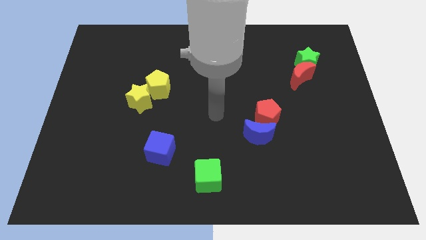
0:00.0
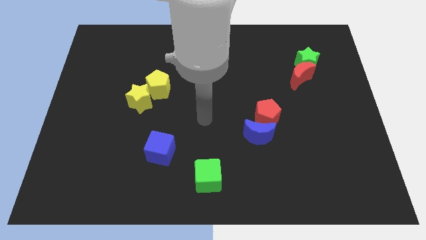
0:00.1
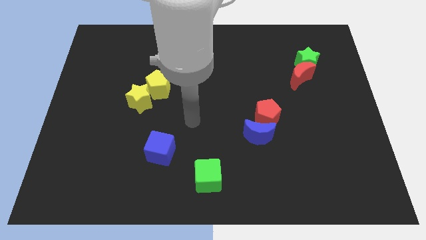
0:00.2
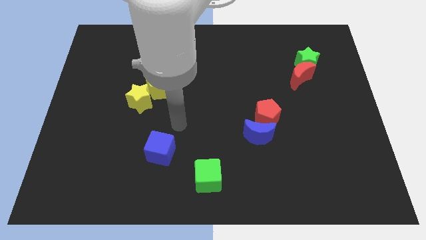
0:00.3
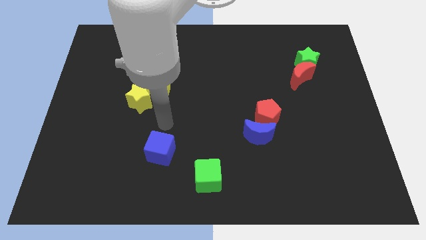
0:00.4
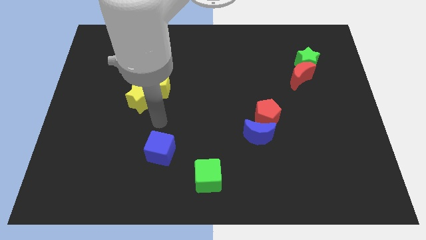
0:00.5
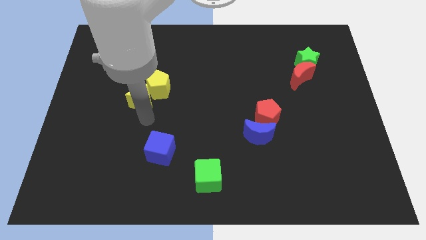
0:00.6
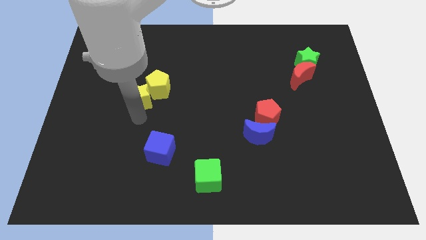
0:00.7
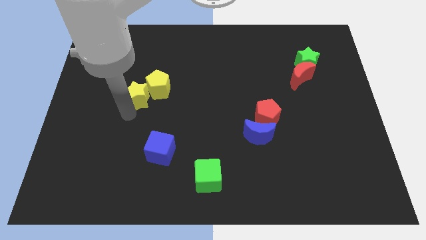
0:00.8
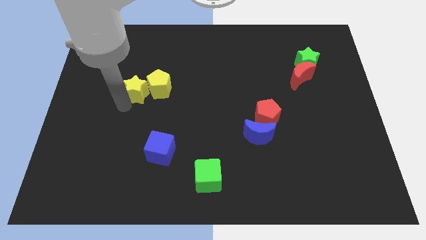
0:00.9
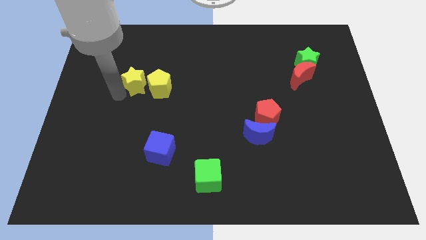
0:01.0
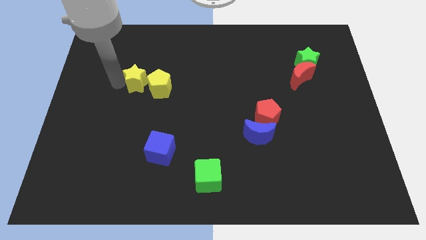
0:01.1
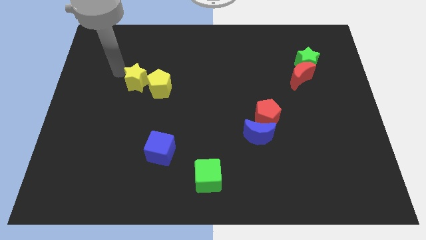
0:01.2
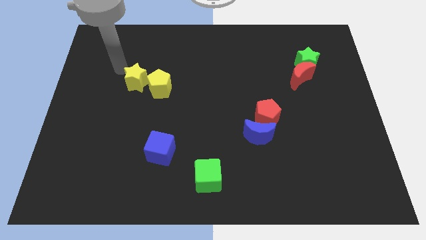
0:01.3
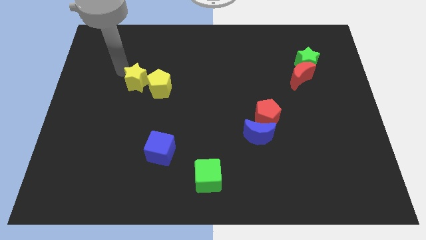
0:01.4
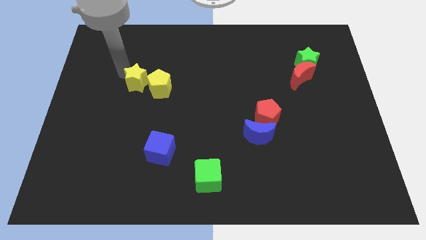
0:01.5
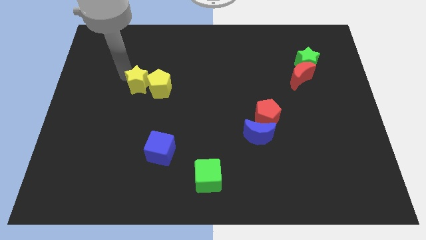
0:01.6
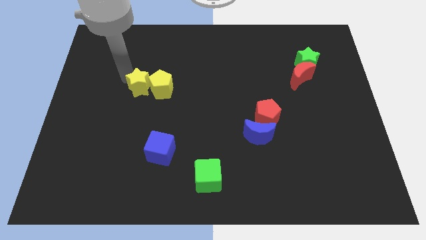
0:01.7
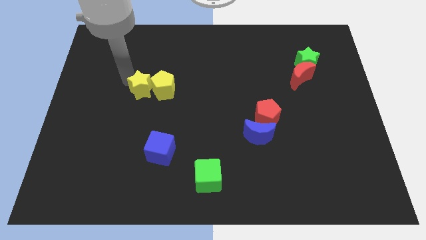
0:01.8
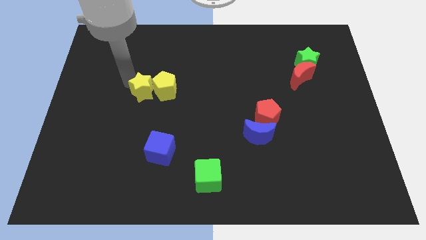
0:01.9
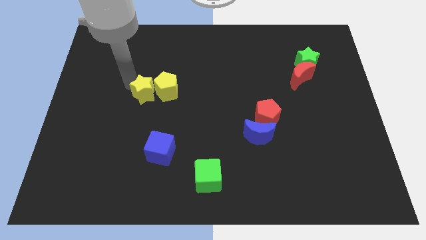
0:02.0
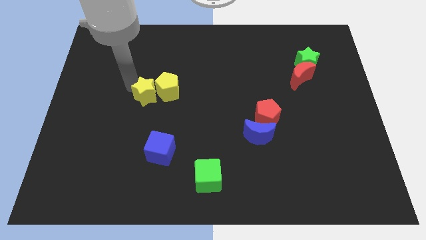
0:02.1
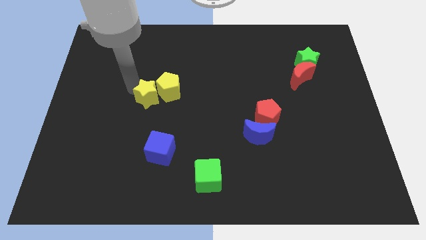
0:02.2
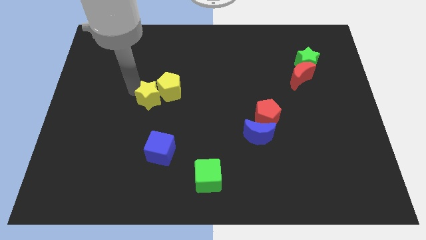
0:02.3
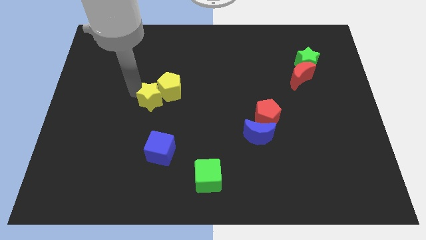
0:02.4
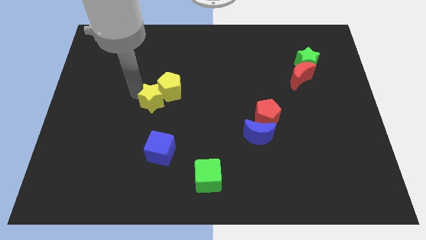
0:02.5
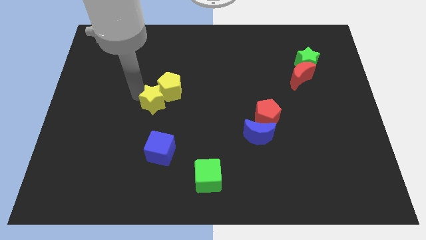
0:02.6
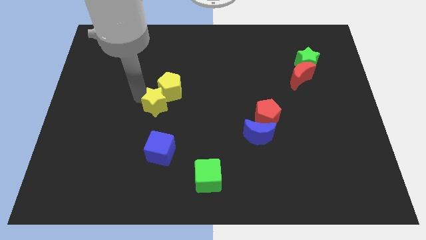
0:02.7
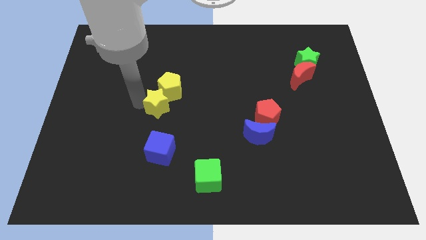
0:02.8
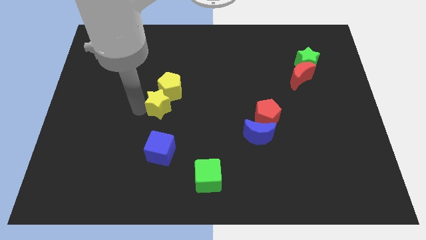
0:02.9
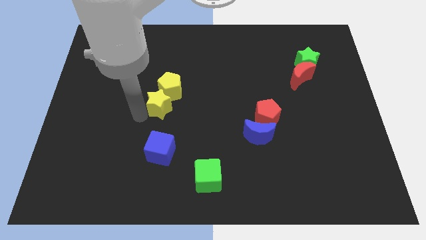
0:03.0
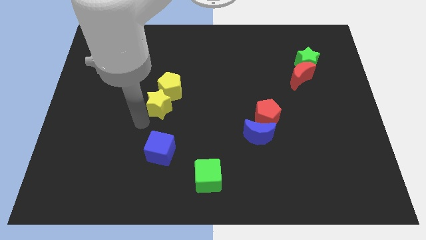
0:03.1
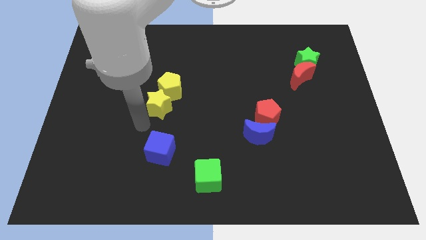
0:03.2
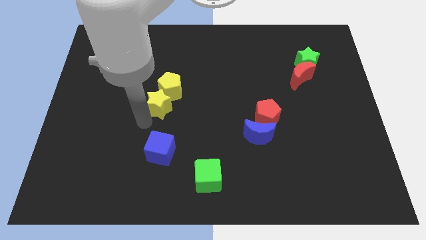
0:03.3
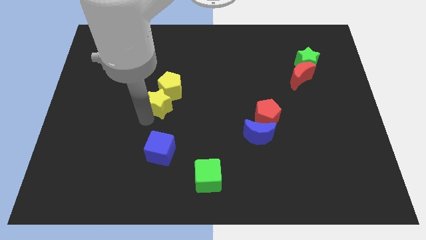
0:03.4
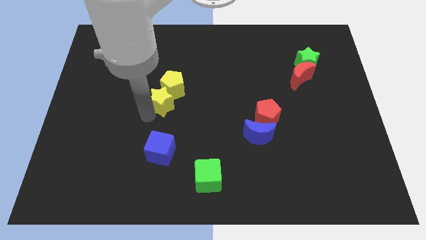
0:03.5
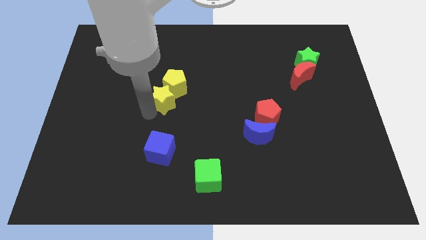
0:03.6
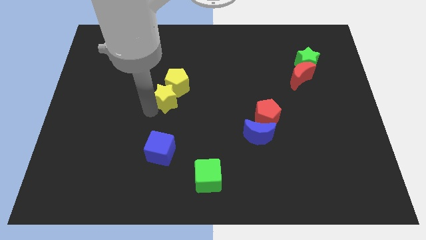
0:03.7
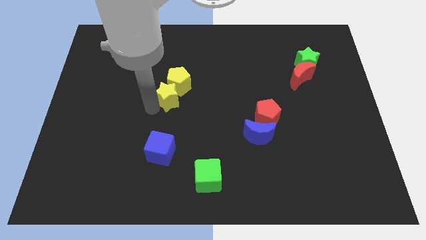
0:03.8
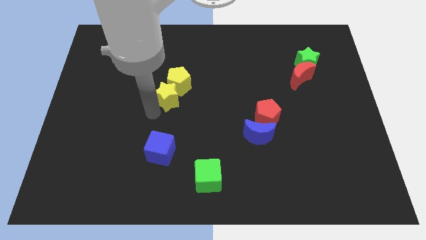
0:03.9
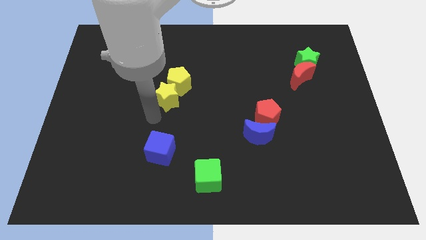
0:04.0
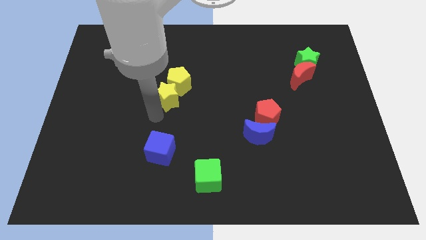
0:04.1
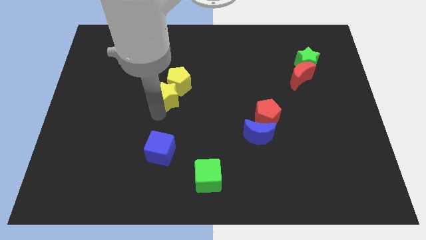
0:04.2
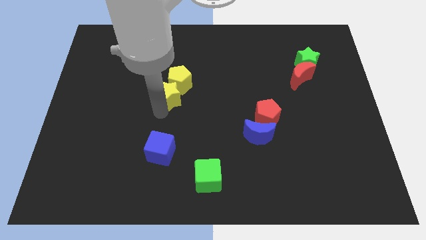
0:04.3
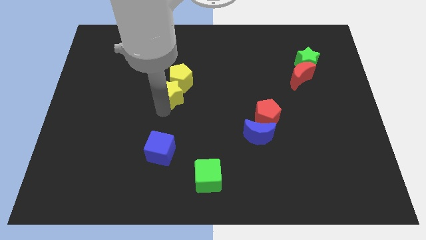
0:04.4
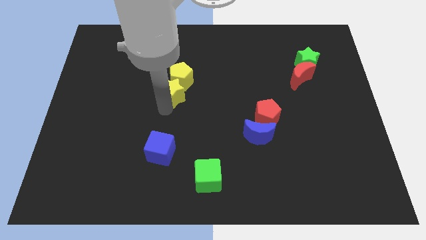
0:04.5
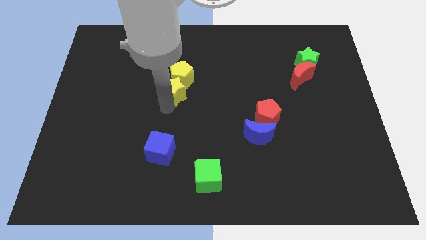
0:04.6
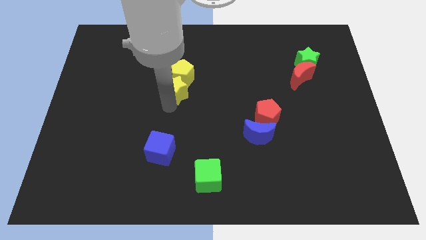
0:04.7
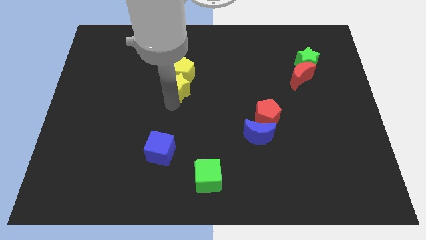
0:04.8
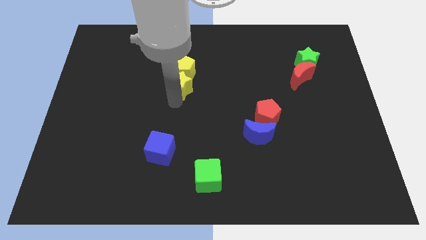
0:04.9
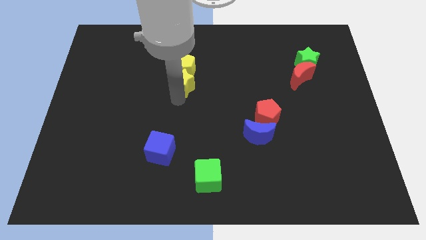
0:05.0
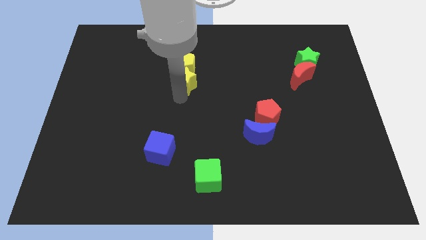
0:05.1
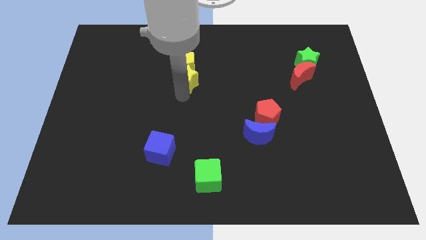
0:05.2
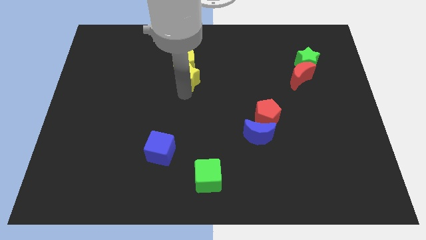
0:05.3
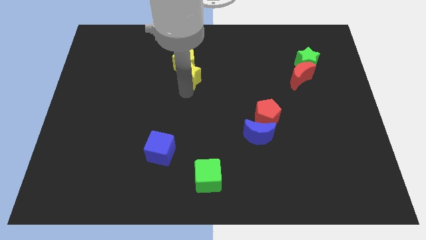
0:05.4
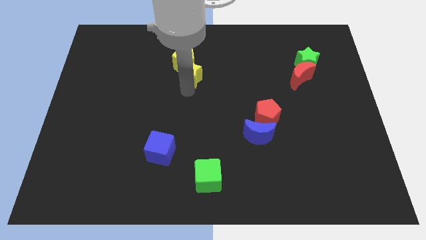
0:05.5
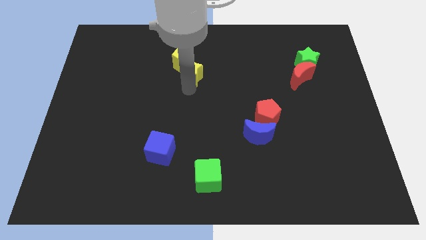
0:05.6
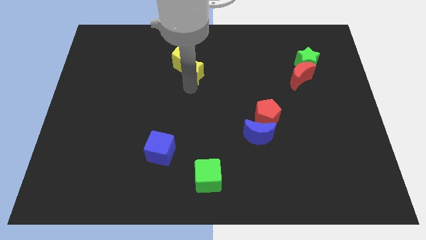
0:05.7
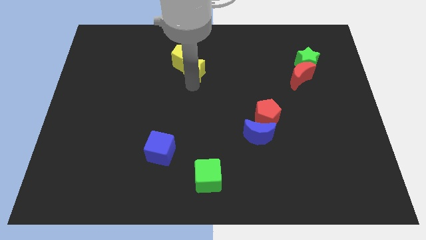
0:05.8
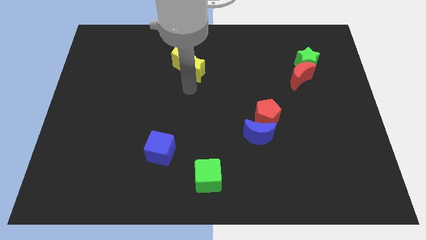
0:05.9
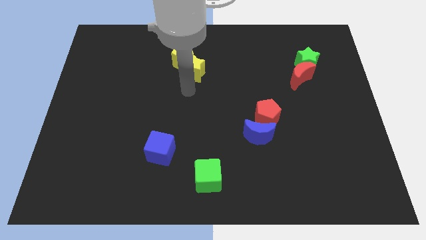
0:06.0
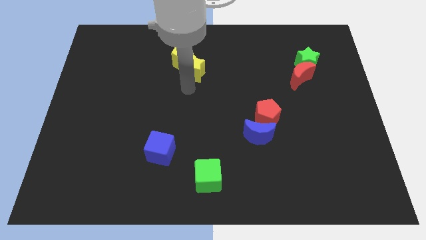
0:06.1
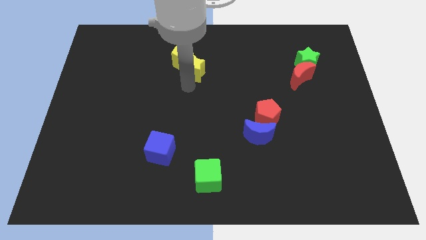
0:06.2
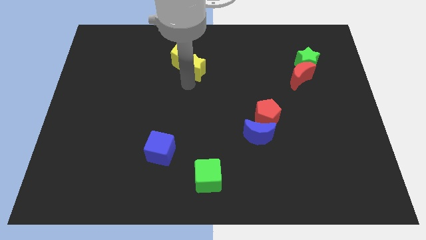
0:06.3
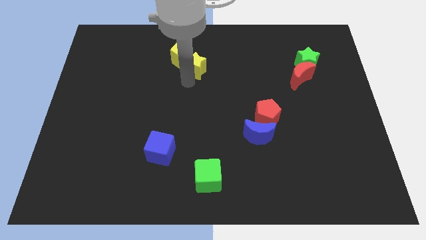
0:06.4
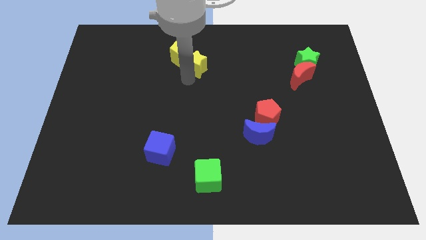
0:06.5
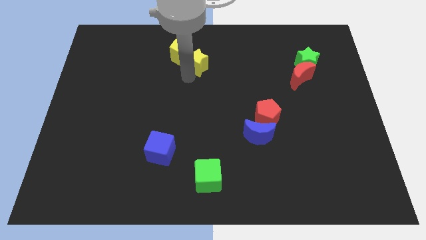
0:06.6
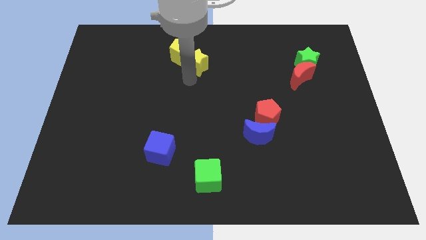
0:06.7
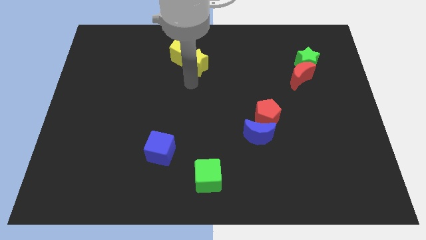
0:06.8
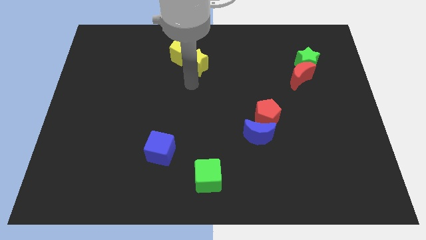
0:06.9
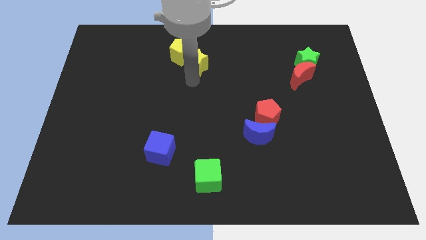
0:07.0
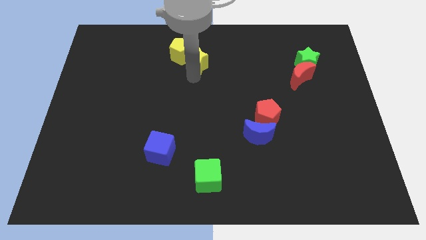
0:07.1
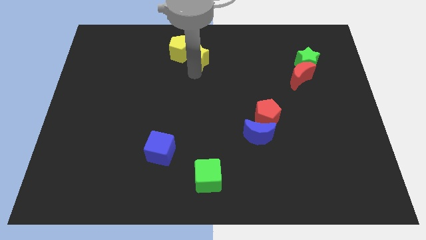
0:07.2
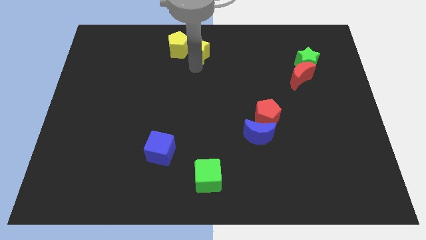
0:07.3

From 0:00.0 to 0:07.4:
move the yellow star to the top side
